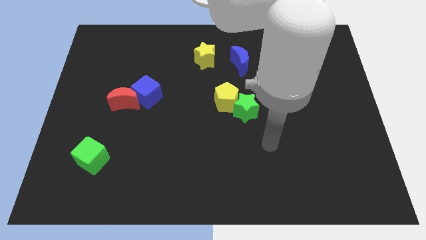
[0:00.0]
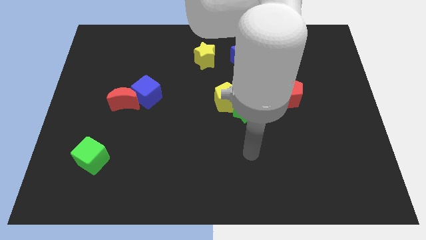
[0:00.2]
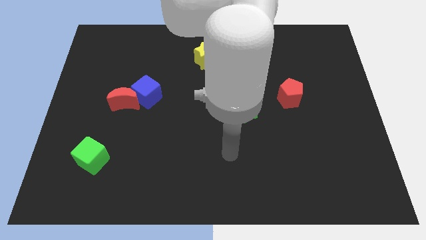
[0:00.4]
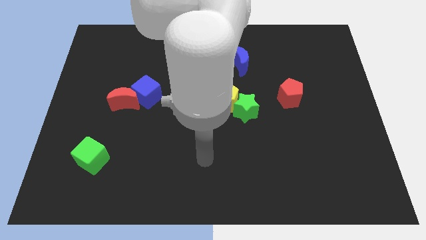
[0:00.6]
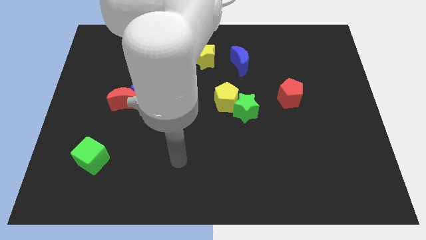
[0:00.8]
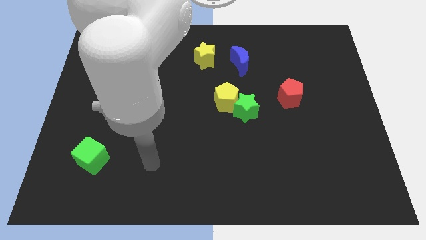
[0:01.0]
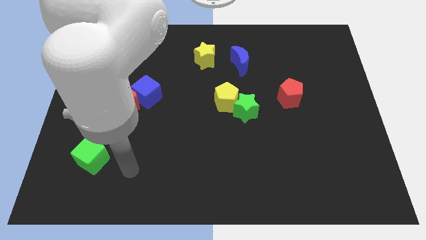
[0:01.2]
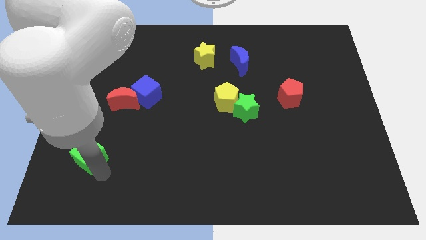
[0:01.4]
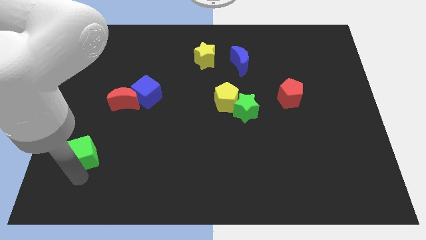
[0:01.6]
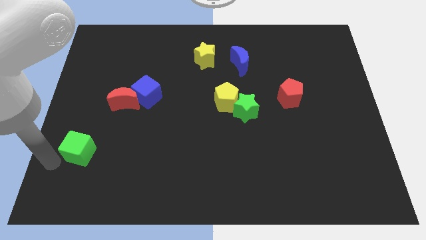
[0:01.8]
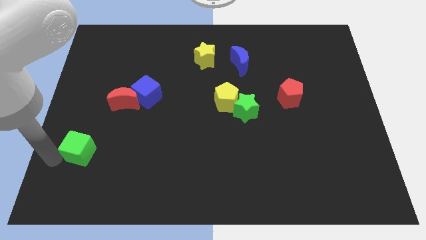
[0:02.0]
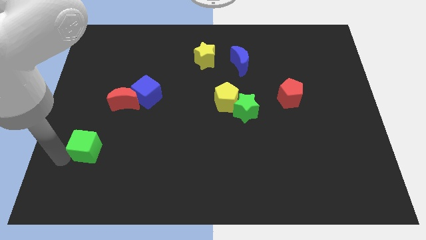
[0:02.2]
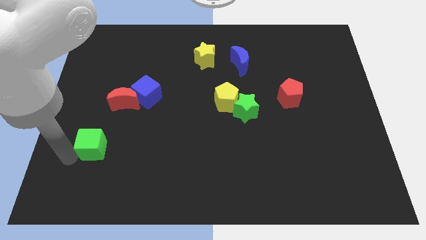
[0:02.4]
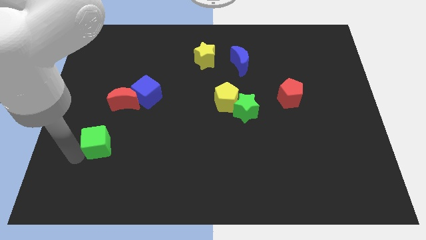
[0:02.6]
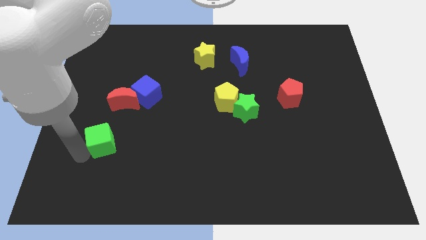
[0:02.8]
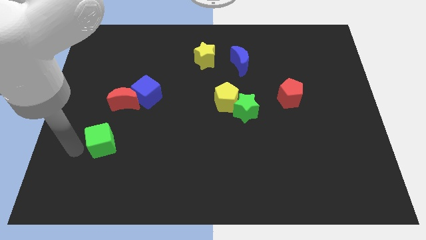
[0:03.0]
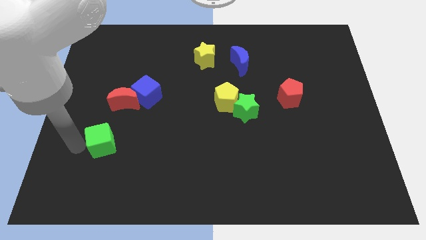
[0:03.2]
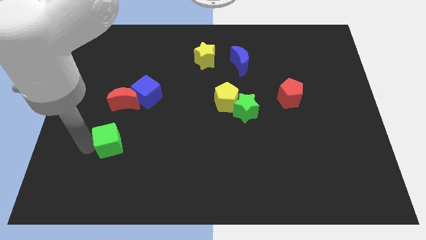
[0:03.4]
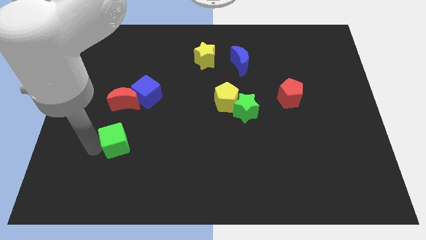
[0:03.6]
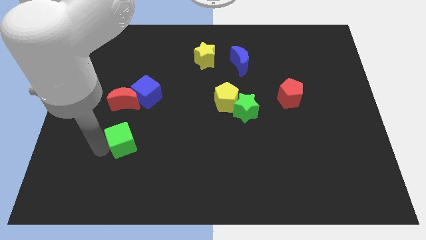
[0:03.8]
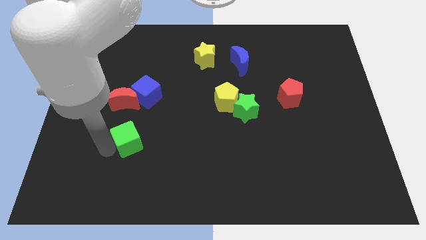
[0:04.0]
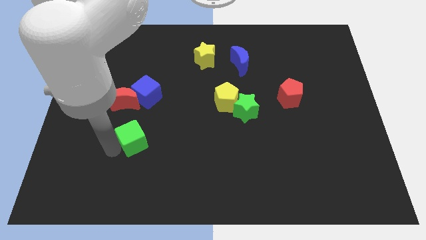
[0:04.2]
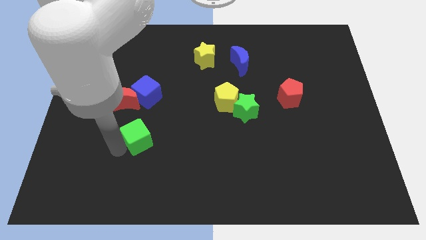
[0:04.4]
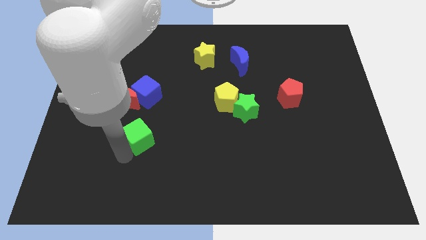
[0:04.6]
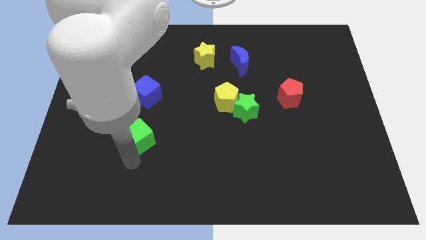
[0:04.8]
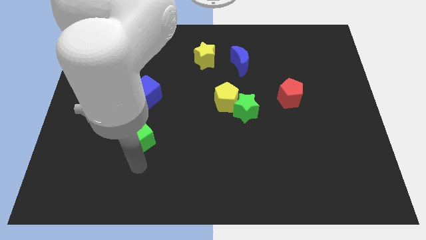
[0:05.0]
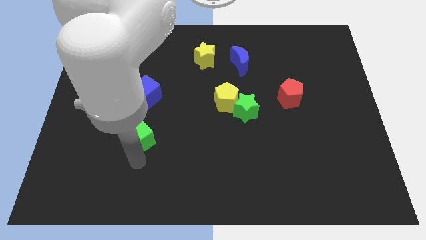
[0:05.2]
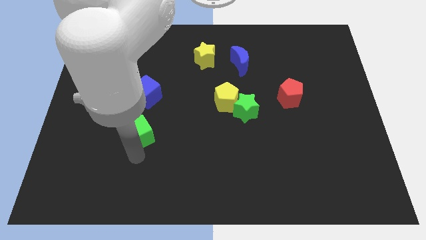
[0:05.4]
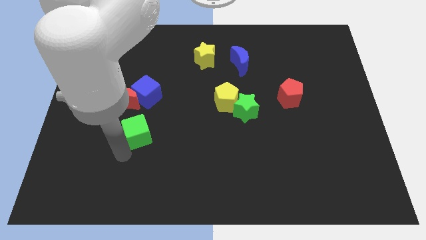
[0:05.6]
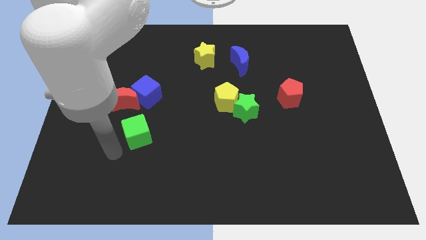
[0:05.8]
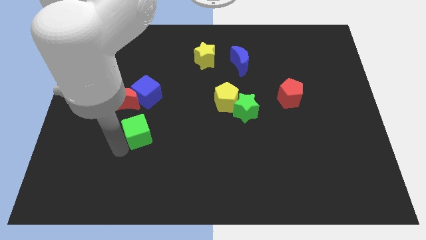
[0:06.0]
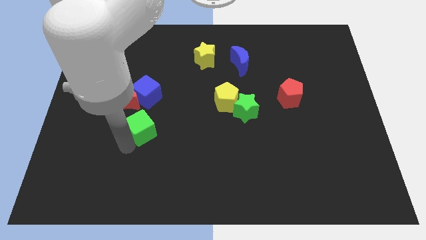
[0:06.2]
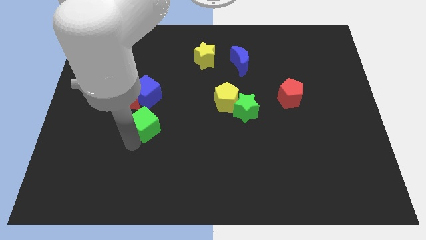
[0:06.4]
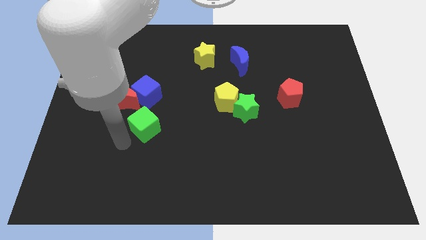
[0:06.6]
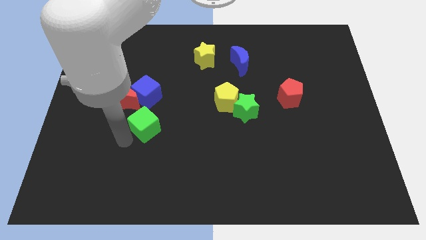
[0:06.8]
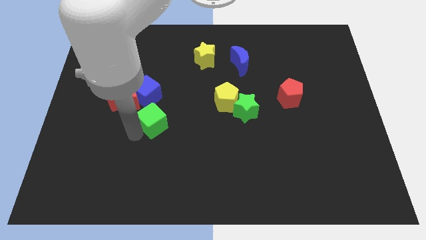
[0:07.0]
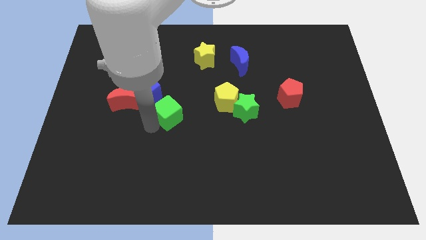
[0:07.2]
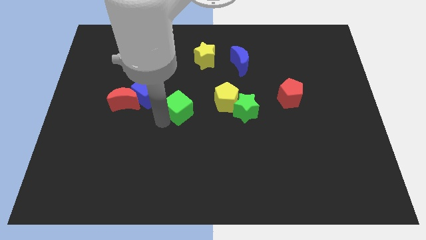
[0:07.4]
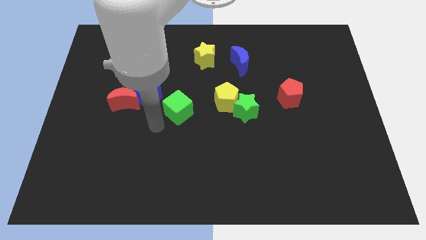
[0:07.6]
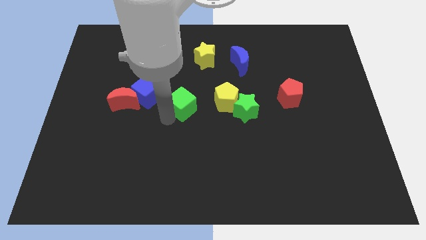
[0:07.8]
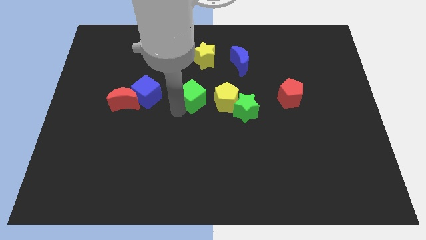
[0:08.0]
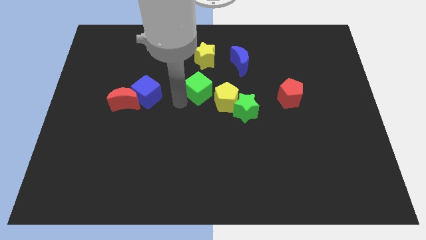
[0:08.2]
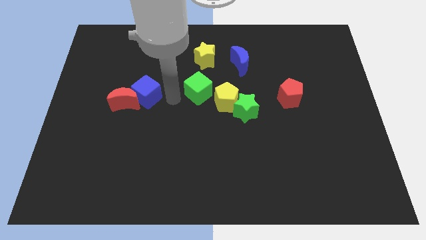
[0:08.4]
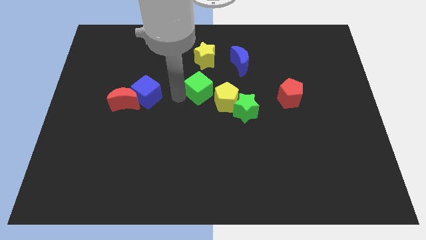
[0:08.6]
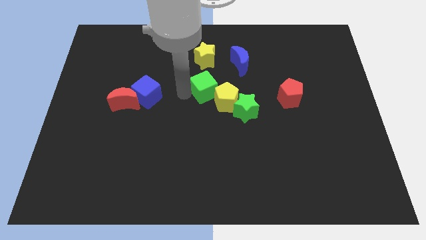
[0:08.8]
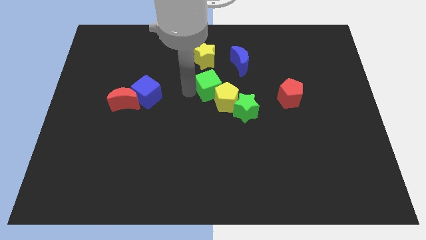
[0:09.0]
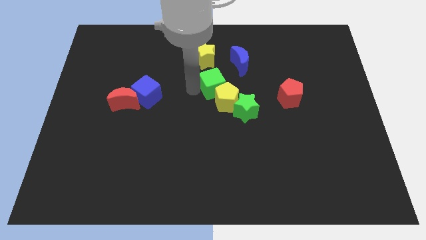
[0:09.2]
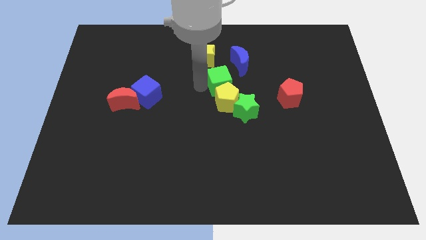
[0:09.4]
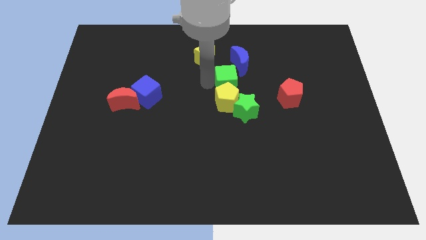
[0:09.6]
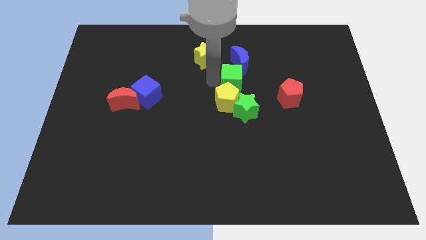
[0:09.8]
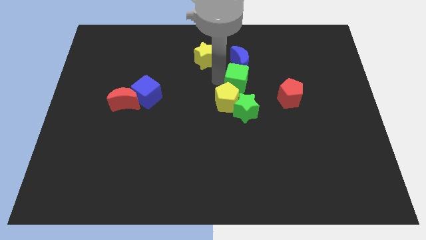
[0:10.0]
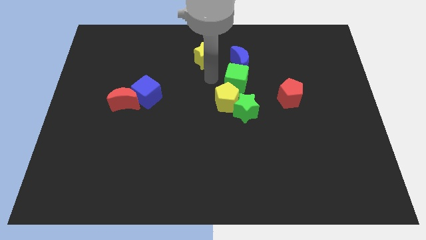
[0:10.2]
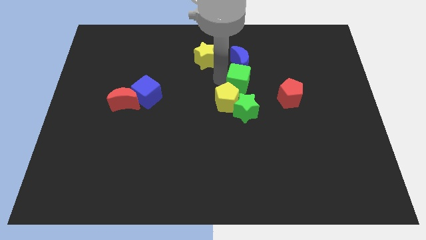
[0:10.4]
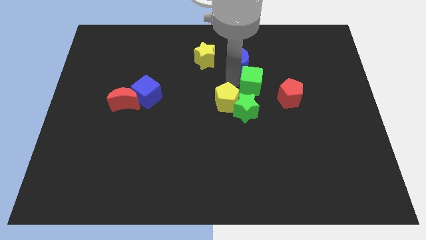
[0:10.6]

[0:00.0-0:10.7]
slide the green cube to the top left of the red pentagon

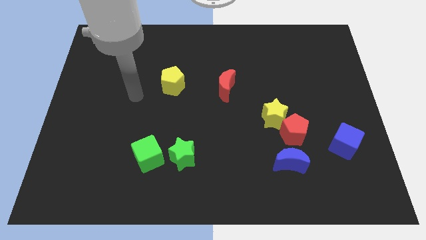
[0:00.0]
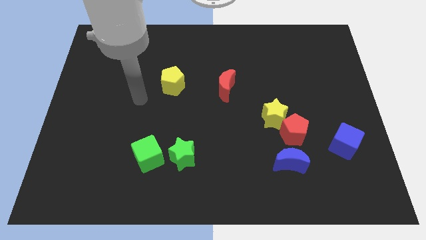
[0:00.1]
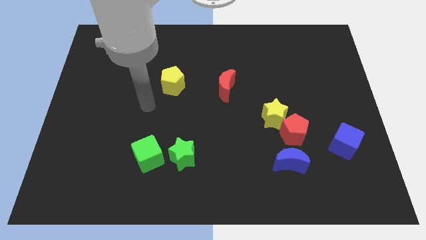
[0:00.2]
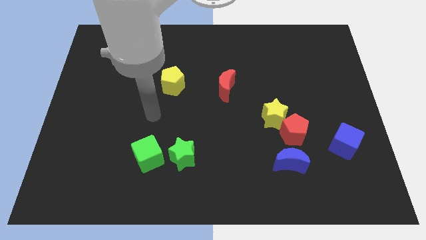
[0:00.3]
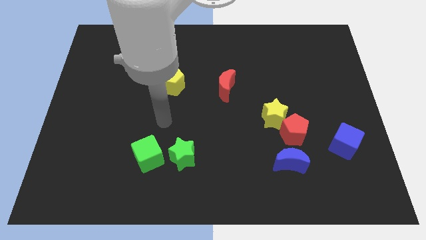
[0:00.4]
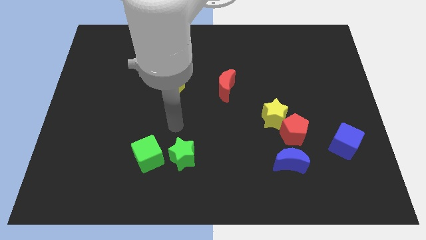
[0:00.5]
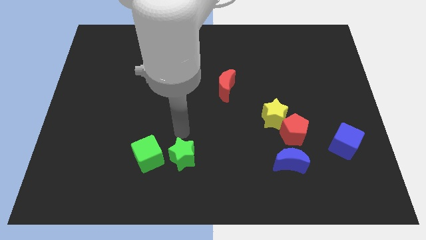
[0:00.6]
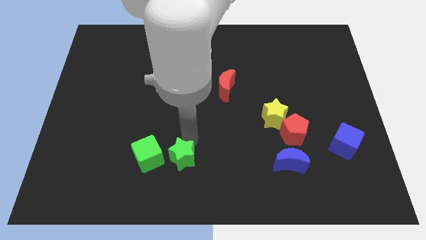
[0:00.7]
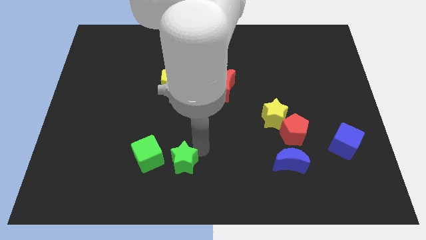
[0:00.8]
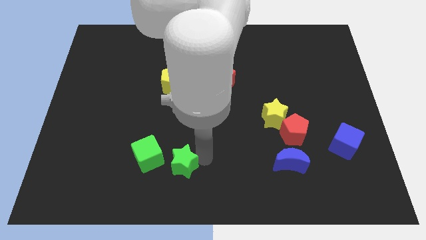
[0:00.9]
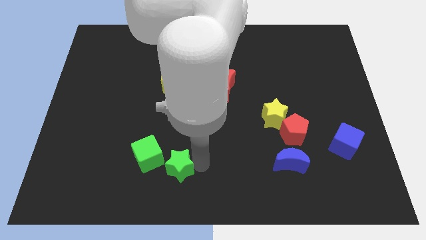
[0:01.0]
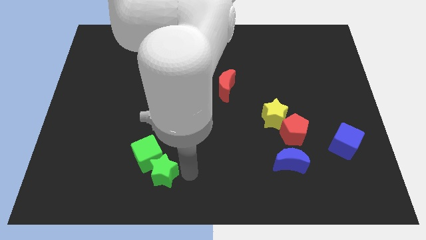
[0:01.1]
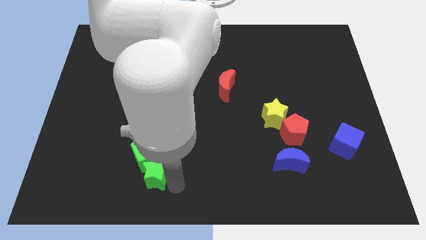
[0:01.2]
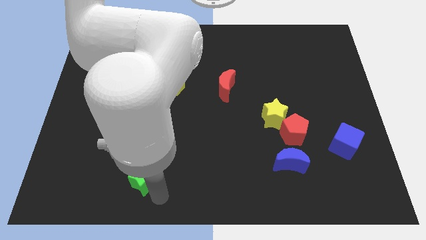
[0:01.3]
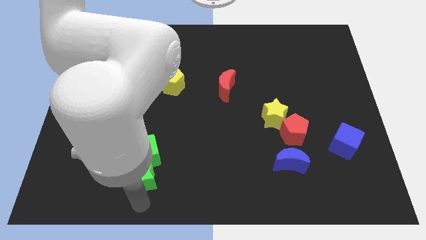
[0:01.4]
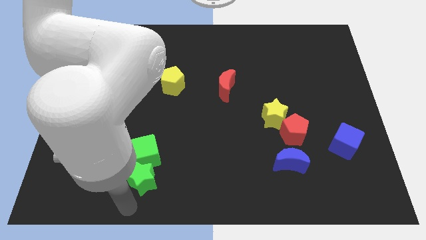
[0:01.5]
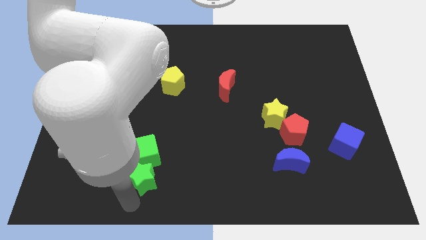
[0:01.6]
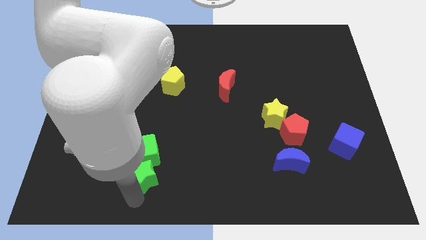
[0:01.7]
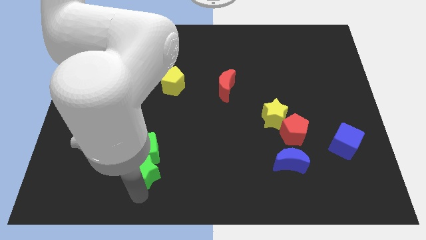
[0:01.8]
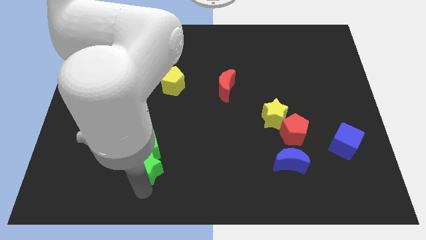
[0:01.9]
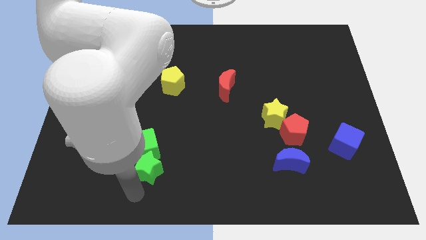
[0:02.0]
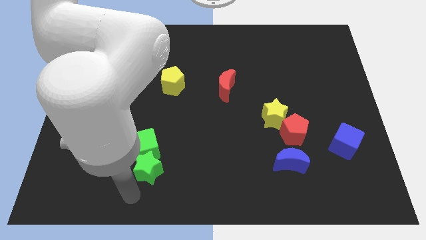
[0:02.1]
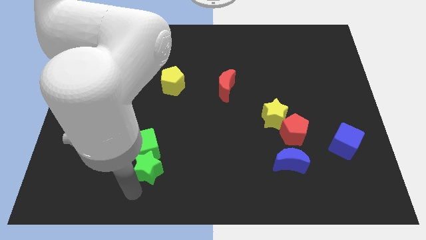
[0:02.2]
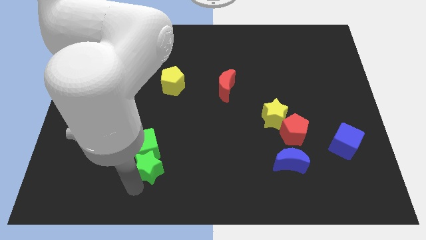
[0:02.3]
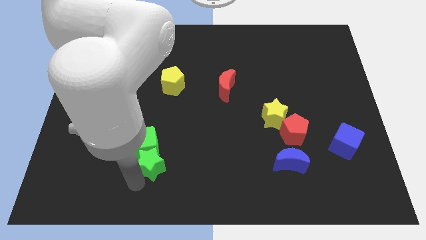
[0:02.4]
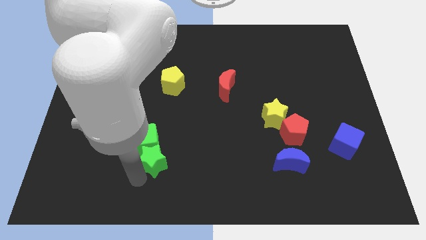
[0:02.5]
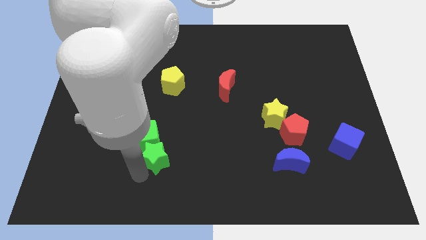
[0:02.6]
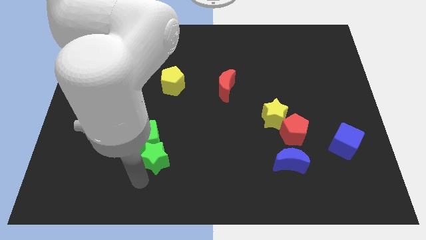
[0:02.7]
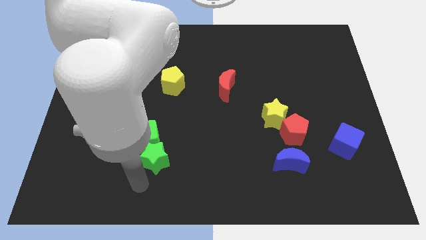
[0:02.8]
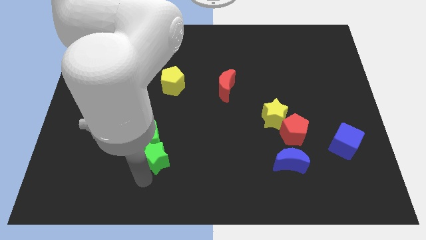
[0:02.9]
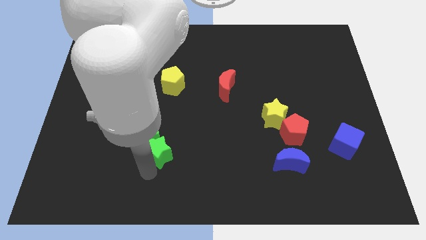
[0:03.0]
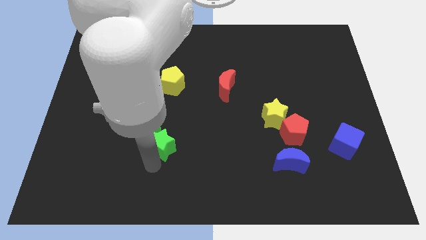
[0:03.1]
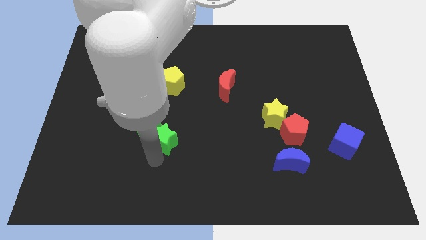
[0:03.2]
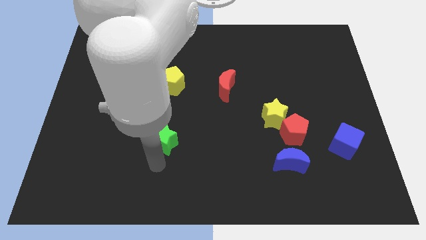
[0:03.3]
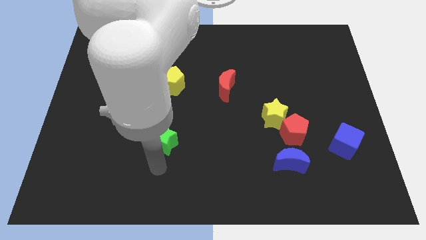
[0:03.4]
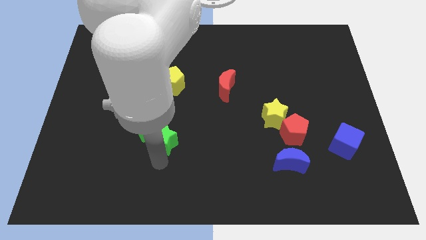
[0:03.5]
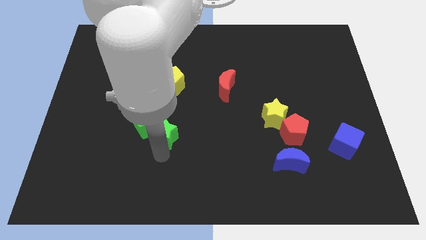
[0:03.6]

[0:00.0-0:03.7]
move the green star below the yellow pentagon
